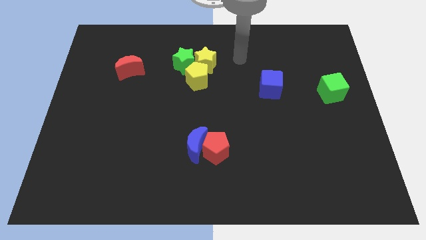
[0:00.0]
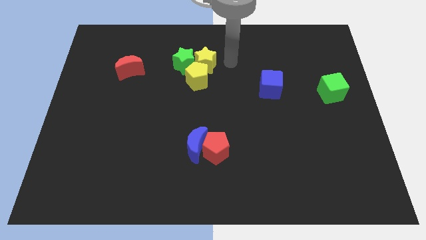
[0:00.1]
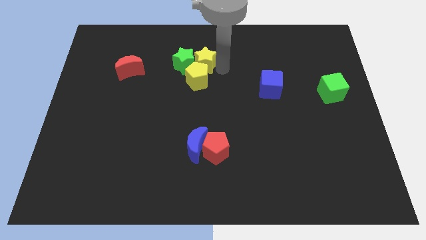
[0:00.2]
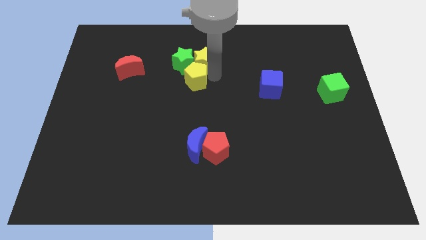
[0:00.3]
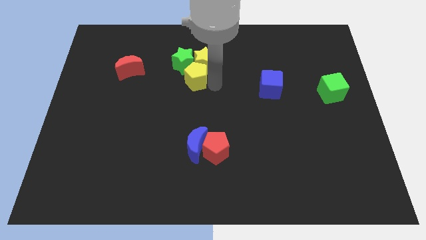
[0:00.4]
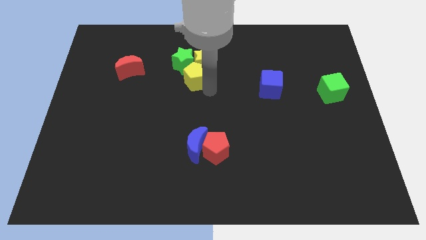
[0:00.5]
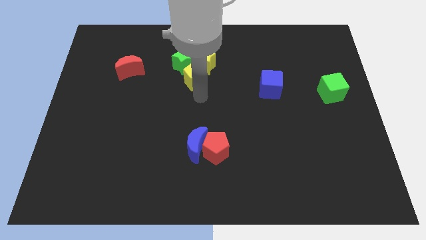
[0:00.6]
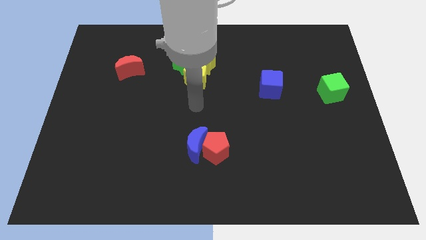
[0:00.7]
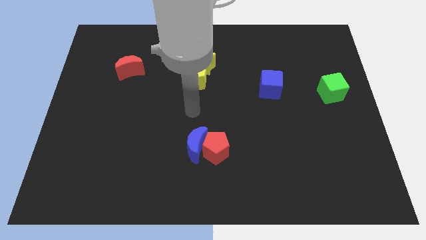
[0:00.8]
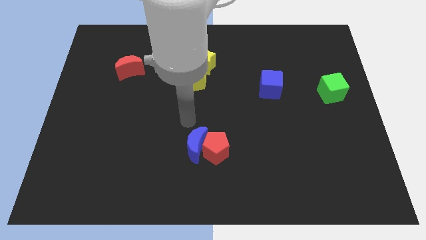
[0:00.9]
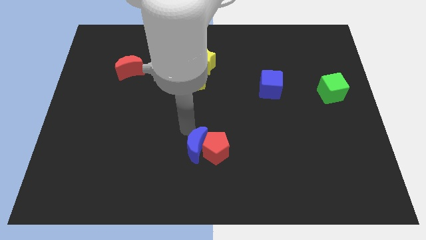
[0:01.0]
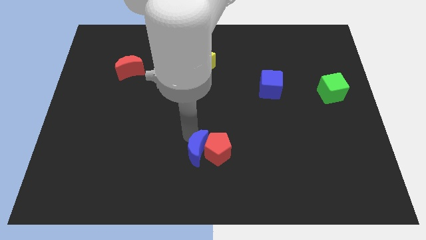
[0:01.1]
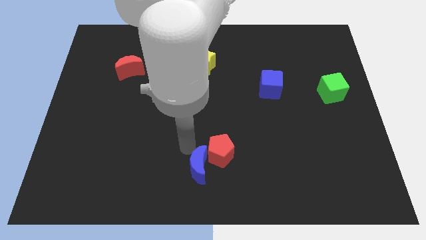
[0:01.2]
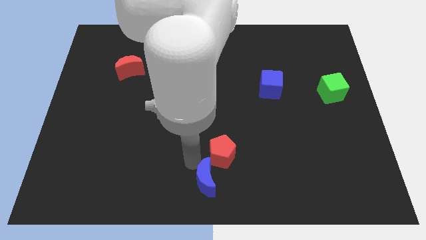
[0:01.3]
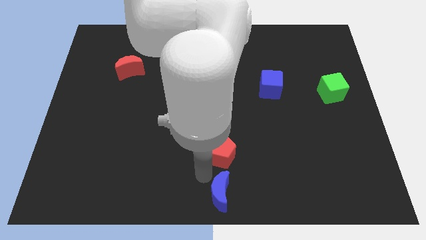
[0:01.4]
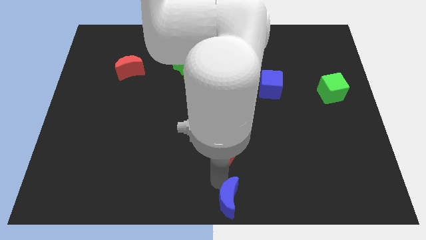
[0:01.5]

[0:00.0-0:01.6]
separate the red pentagon from the blue moon

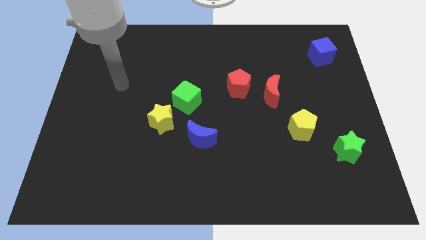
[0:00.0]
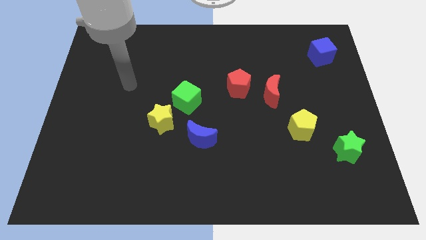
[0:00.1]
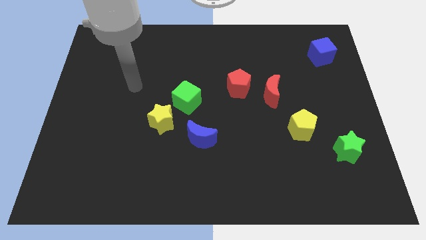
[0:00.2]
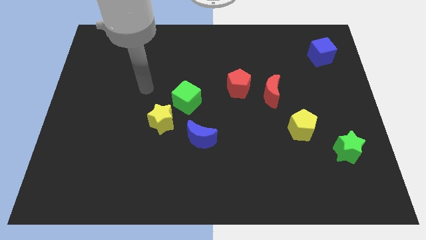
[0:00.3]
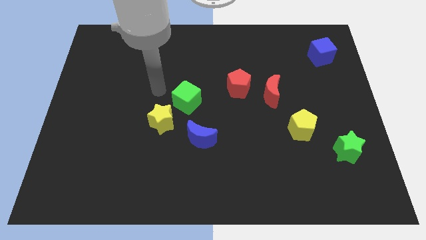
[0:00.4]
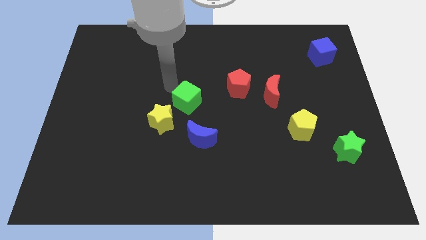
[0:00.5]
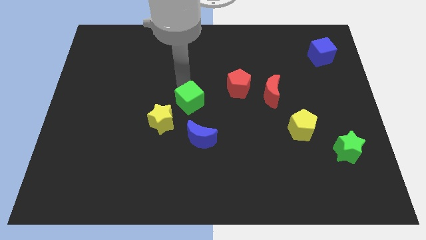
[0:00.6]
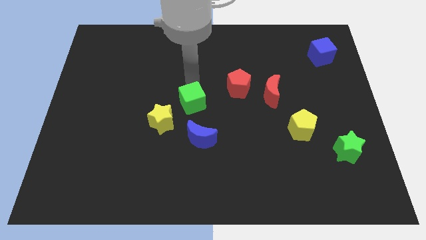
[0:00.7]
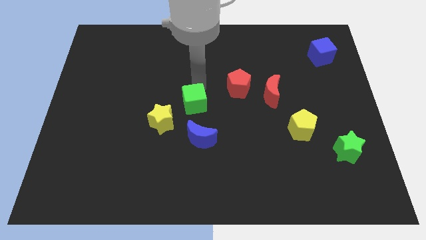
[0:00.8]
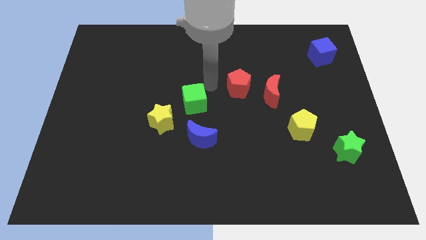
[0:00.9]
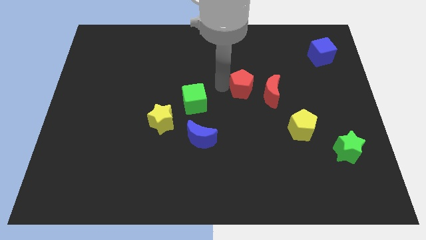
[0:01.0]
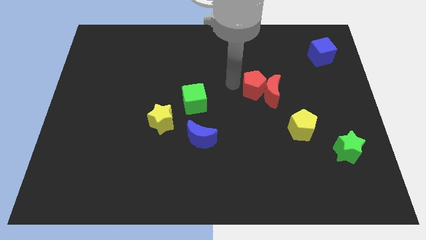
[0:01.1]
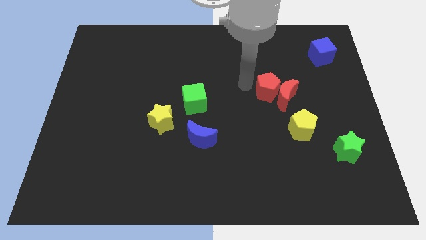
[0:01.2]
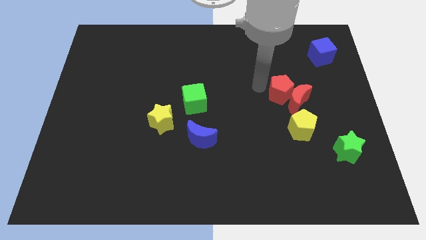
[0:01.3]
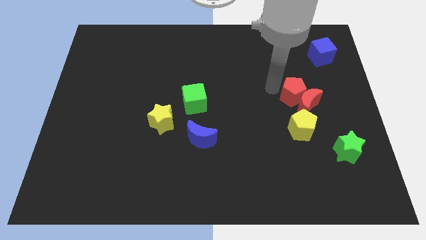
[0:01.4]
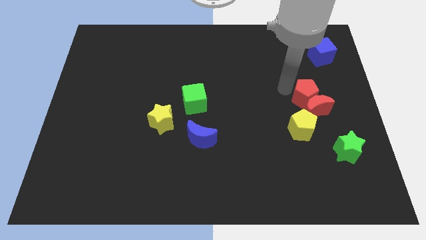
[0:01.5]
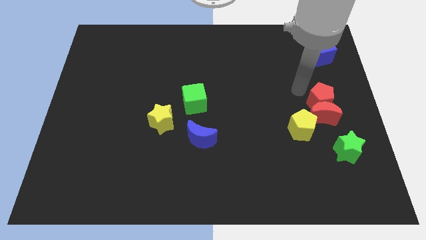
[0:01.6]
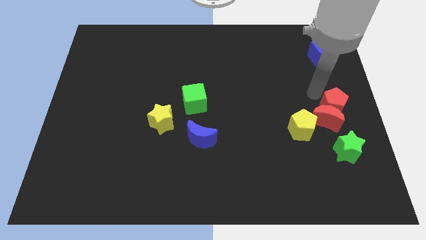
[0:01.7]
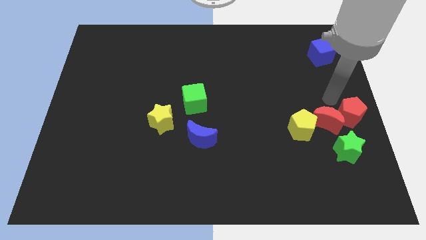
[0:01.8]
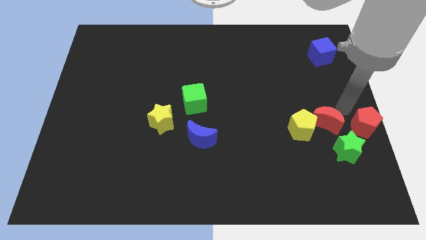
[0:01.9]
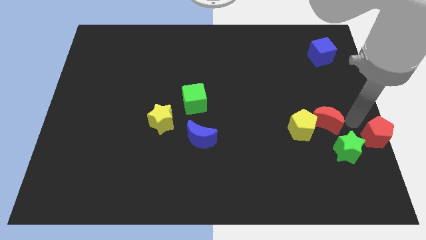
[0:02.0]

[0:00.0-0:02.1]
separate the red moon from the red pentagon

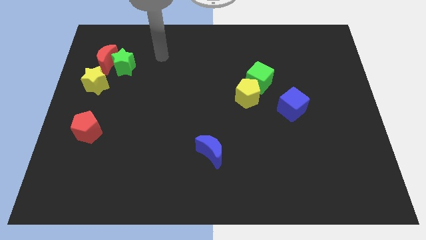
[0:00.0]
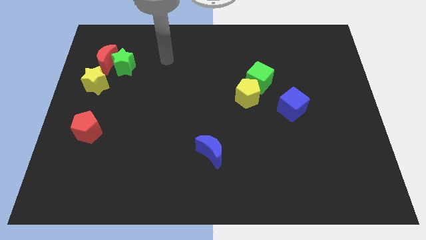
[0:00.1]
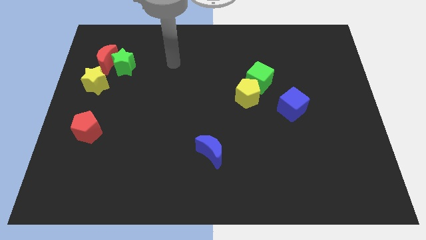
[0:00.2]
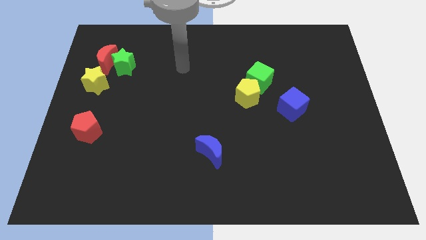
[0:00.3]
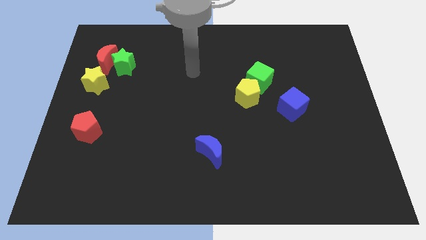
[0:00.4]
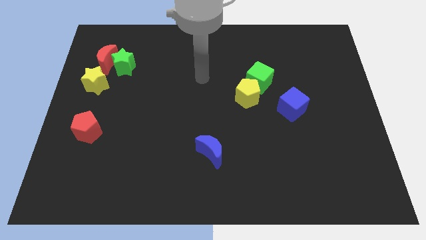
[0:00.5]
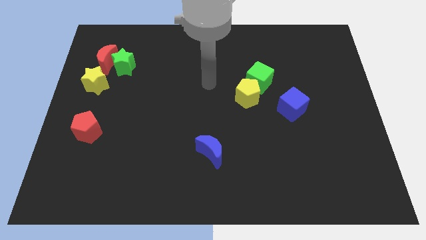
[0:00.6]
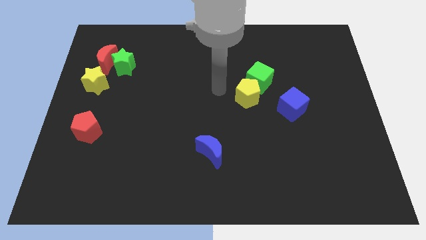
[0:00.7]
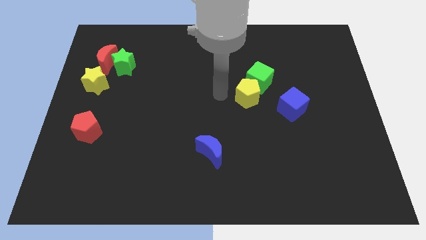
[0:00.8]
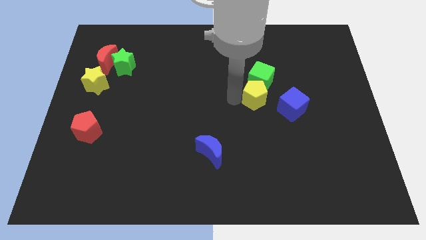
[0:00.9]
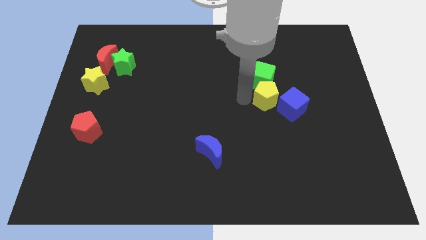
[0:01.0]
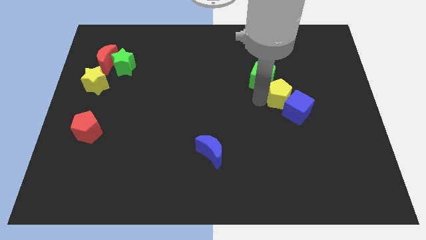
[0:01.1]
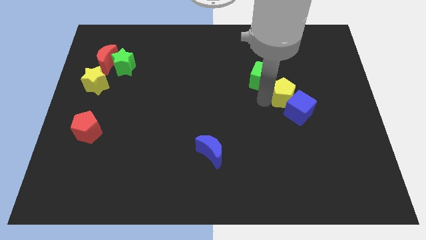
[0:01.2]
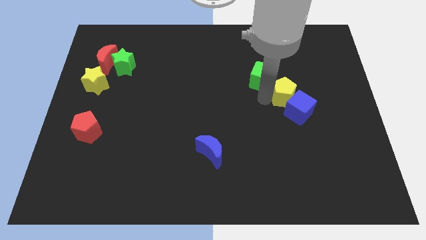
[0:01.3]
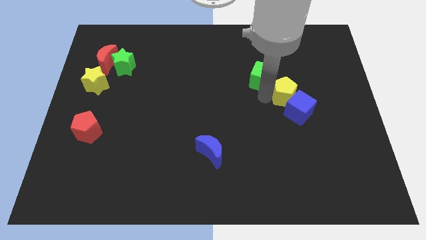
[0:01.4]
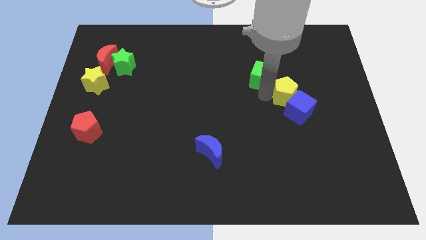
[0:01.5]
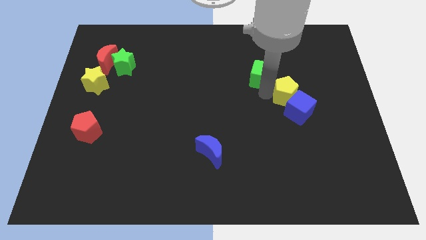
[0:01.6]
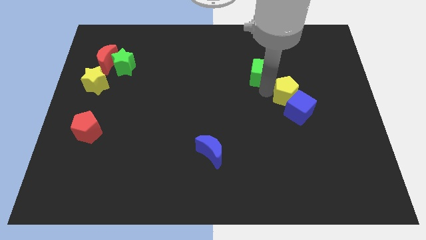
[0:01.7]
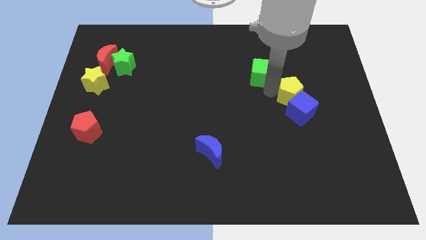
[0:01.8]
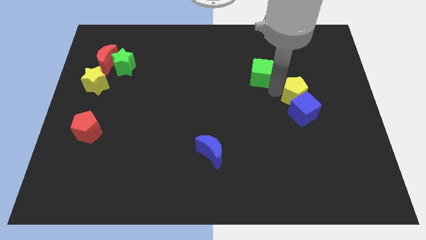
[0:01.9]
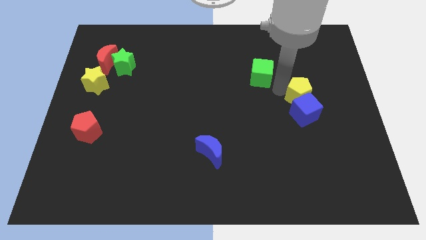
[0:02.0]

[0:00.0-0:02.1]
pull the green cube apart from the yellow pentagon

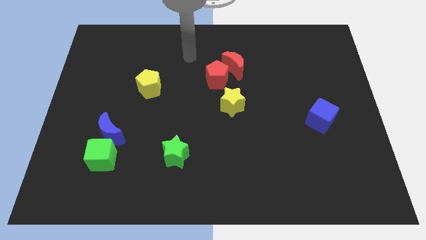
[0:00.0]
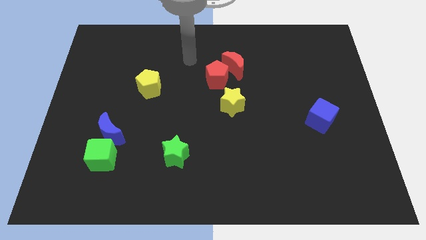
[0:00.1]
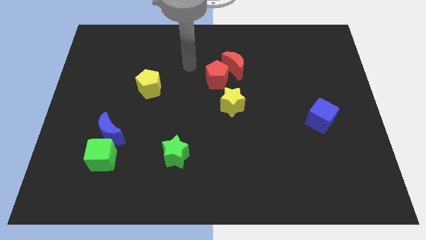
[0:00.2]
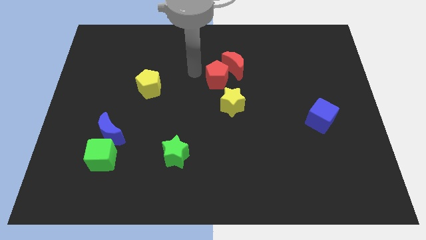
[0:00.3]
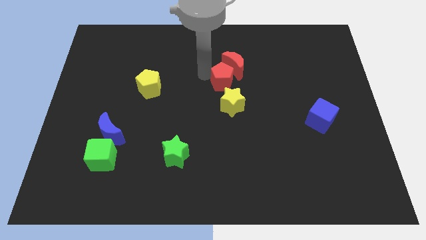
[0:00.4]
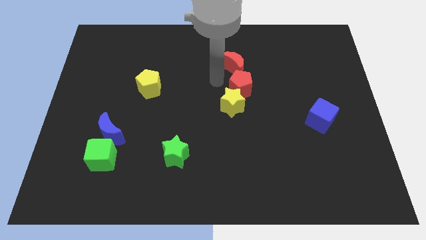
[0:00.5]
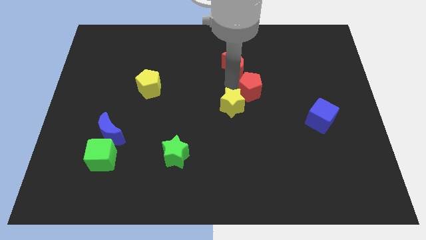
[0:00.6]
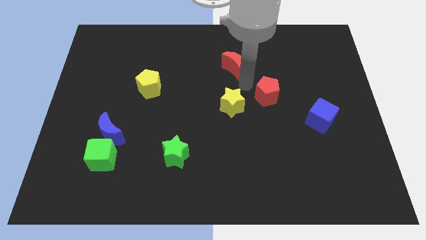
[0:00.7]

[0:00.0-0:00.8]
pull the red moon apart from the red pentagon

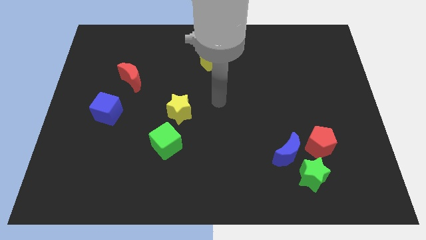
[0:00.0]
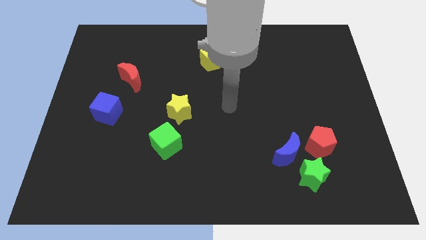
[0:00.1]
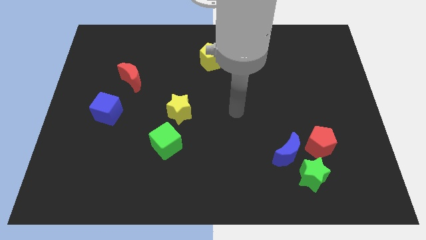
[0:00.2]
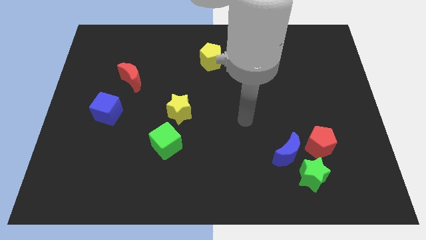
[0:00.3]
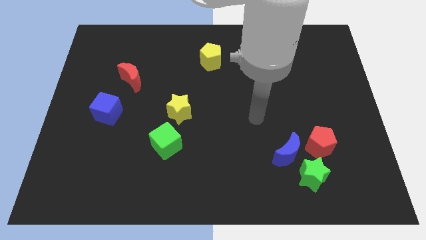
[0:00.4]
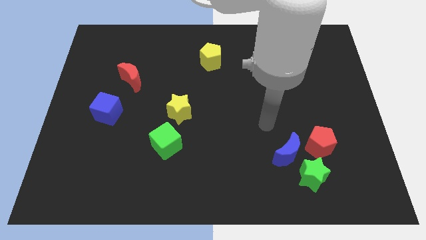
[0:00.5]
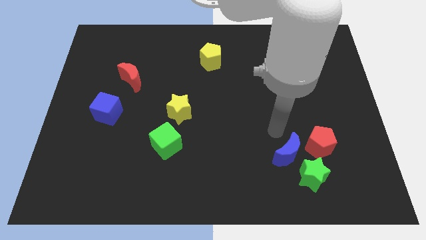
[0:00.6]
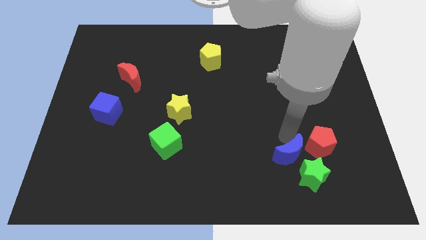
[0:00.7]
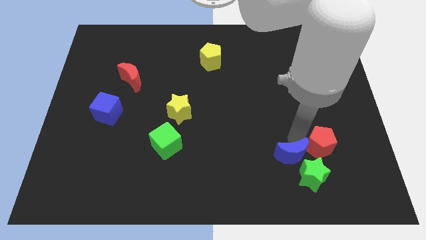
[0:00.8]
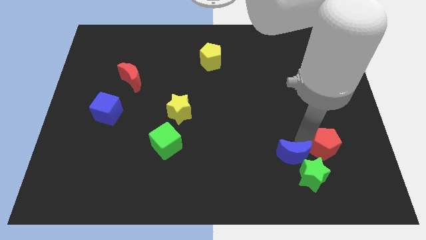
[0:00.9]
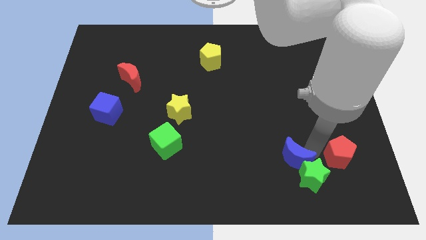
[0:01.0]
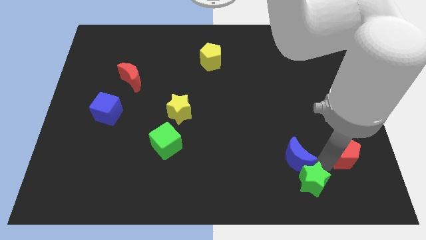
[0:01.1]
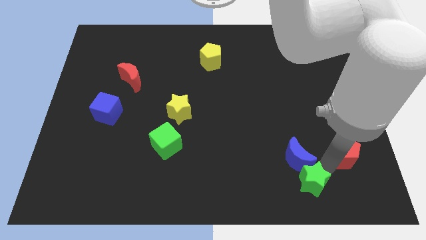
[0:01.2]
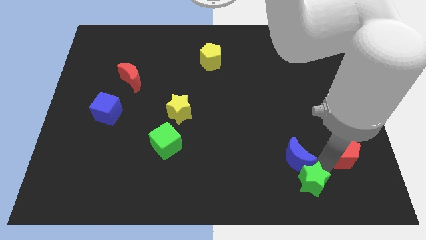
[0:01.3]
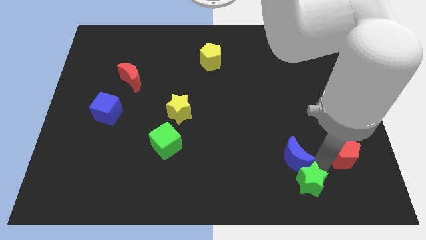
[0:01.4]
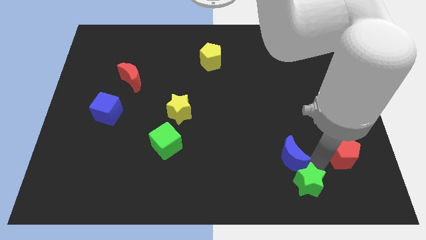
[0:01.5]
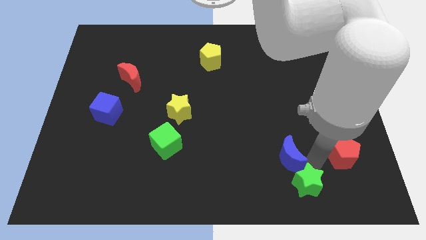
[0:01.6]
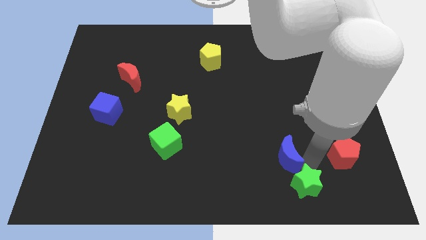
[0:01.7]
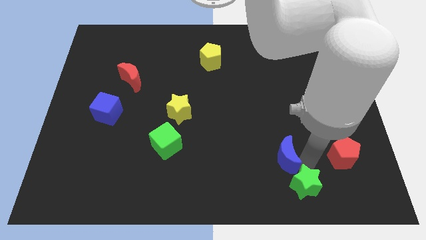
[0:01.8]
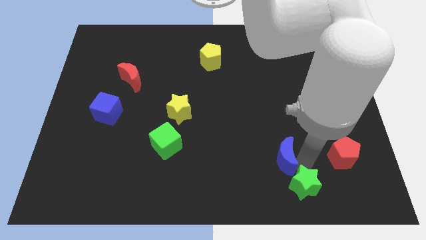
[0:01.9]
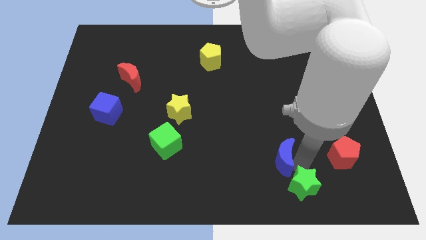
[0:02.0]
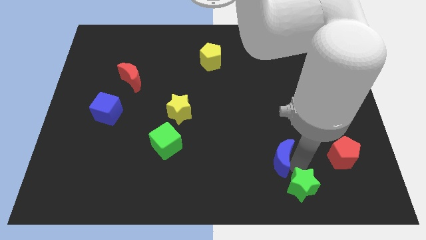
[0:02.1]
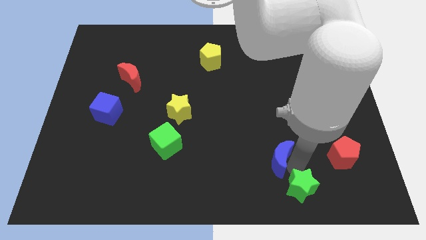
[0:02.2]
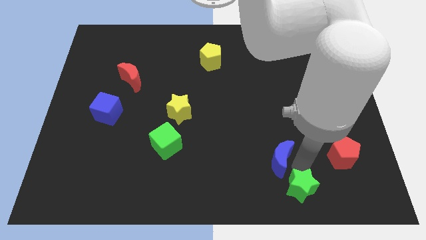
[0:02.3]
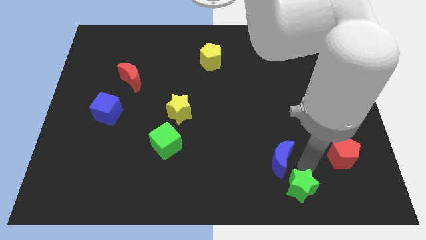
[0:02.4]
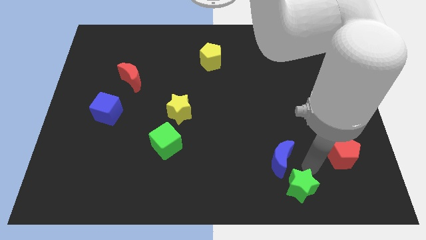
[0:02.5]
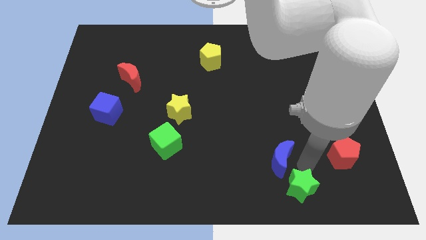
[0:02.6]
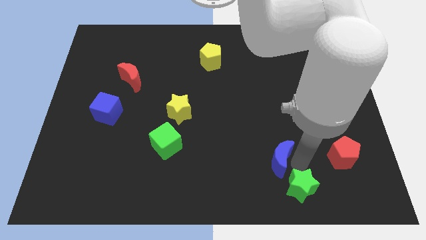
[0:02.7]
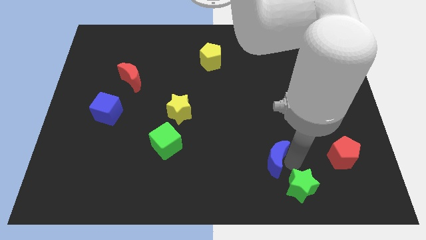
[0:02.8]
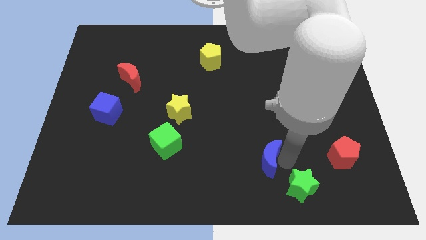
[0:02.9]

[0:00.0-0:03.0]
pull the blue moon apart from the green star and red pentagon
